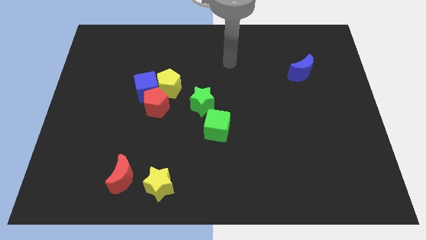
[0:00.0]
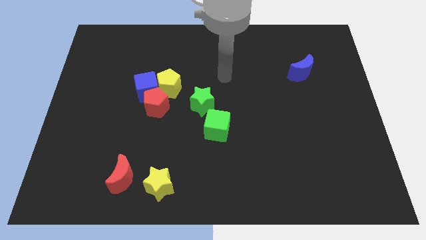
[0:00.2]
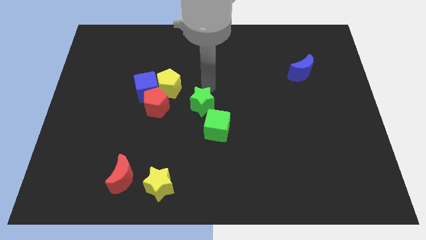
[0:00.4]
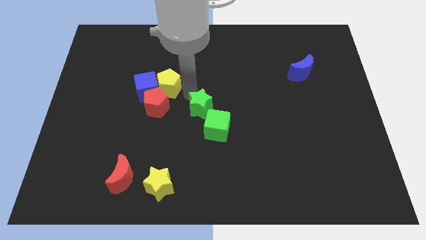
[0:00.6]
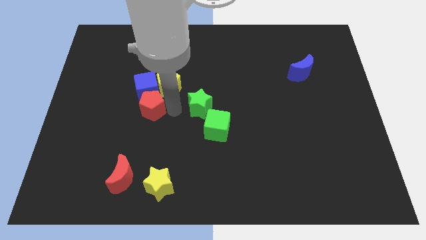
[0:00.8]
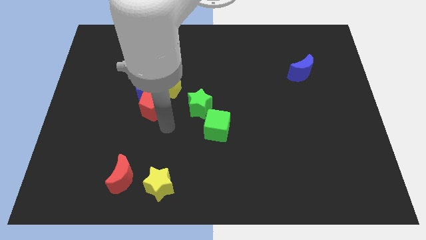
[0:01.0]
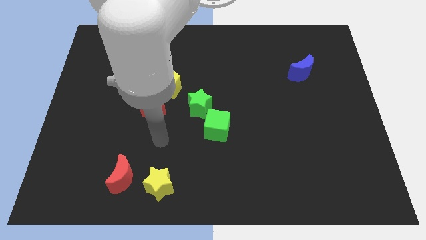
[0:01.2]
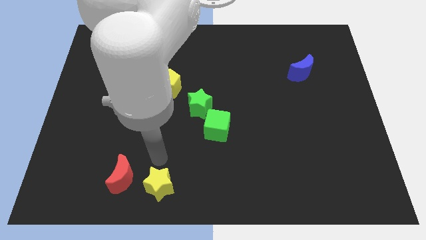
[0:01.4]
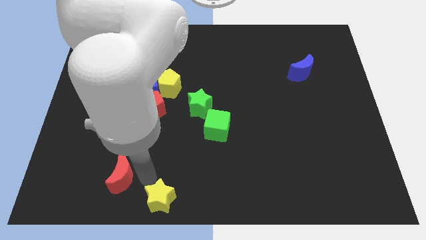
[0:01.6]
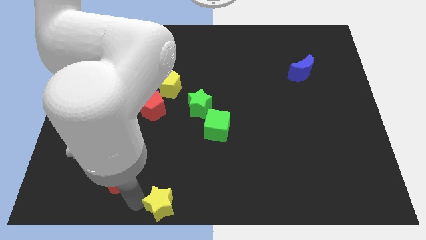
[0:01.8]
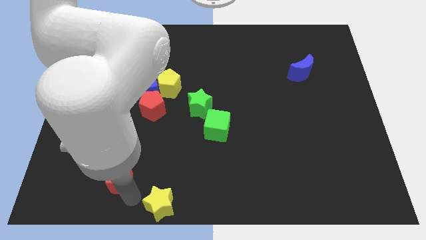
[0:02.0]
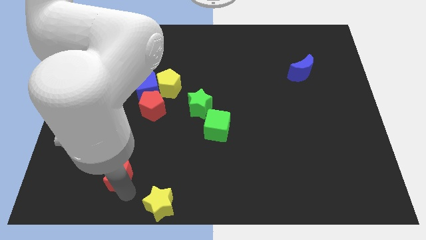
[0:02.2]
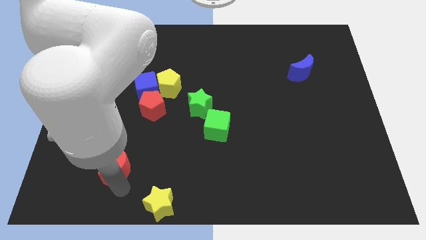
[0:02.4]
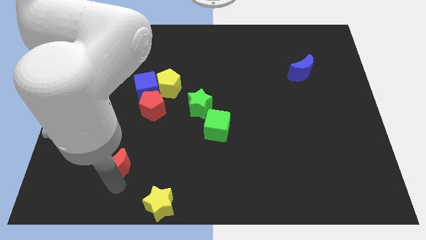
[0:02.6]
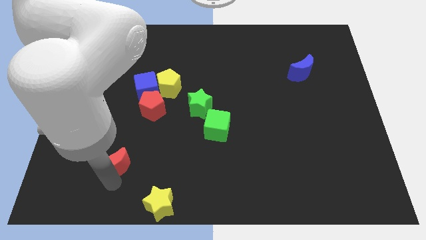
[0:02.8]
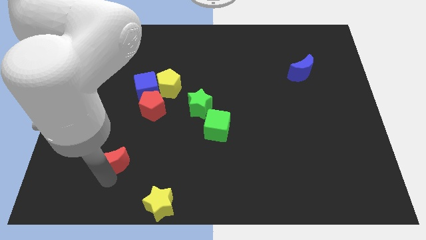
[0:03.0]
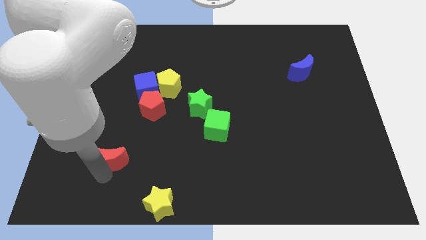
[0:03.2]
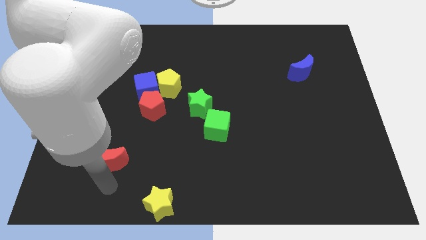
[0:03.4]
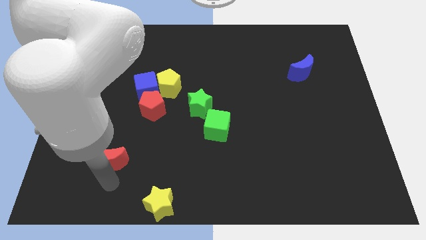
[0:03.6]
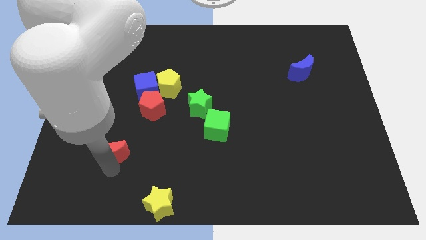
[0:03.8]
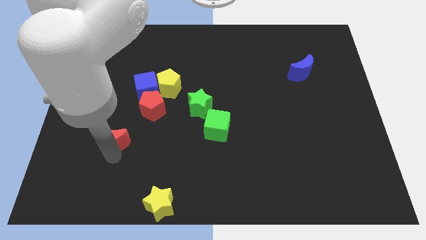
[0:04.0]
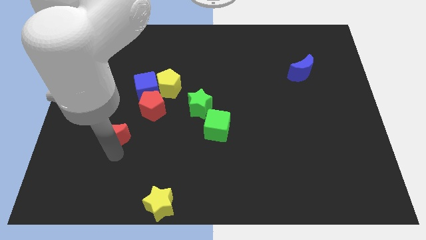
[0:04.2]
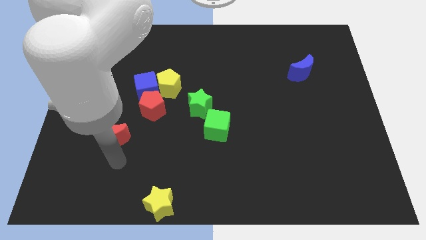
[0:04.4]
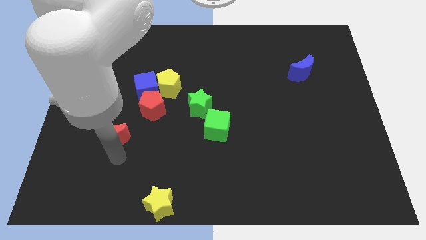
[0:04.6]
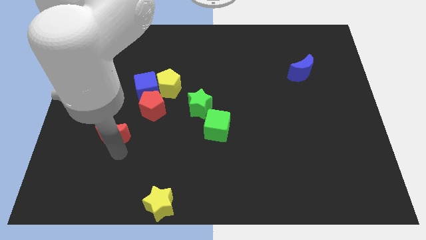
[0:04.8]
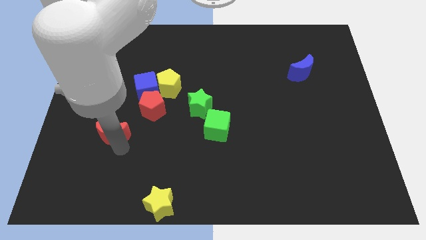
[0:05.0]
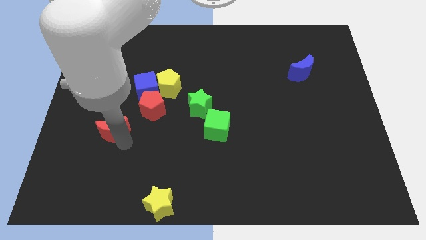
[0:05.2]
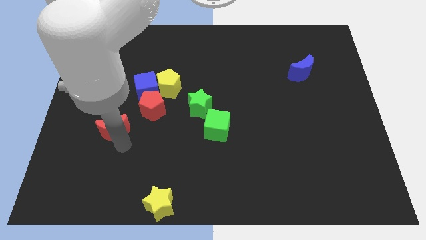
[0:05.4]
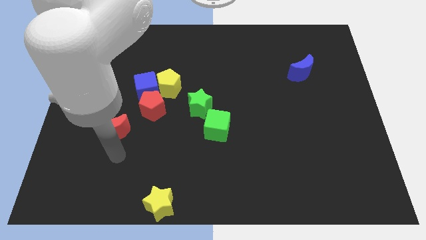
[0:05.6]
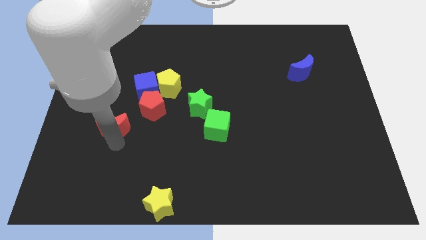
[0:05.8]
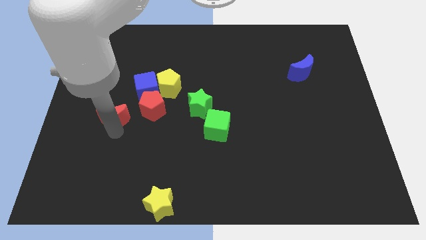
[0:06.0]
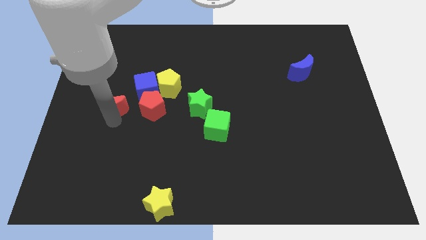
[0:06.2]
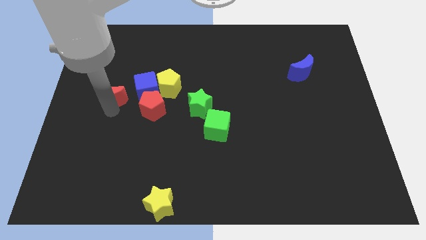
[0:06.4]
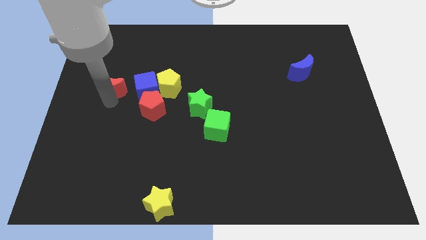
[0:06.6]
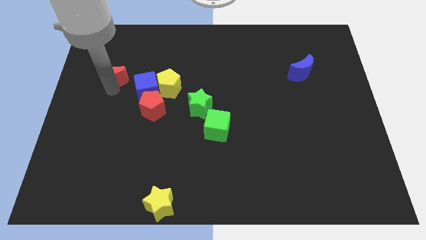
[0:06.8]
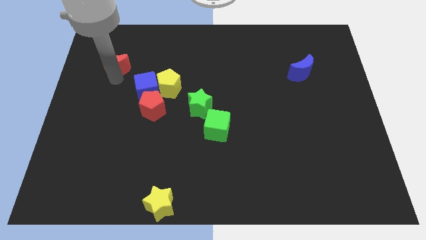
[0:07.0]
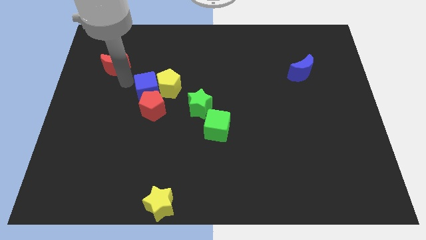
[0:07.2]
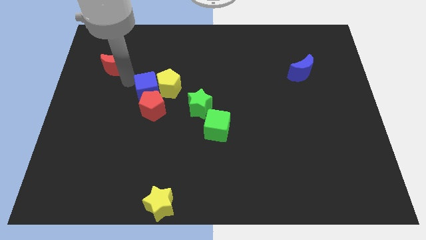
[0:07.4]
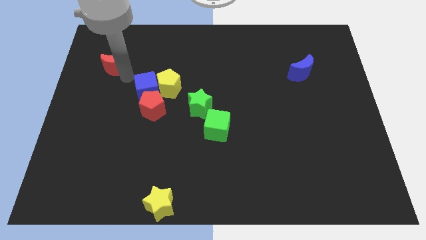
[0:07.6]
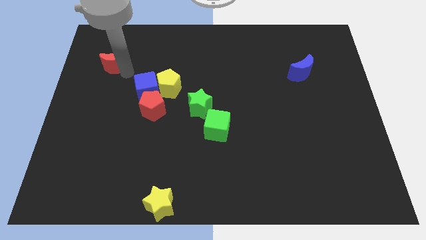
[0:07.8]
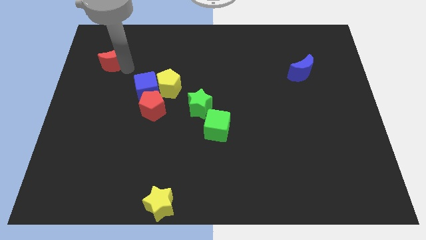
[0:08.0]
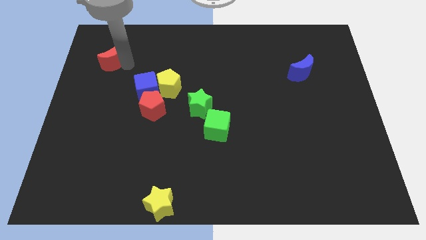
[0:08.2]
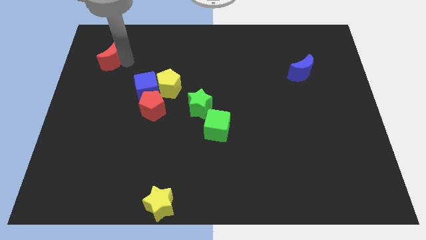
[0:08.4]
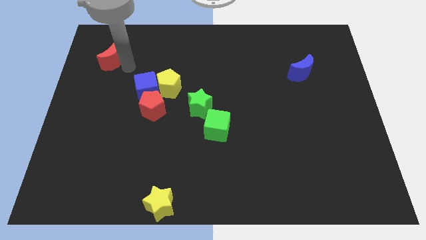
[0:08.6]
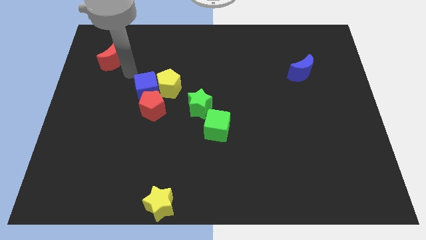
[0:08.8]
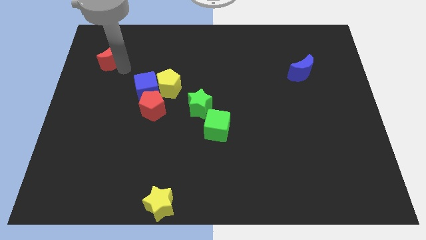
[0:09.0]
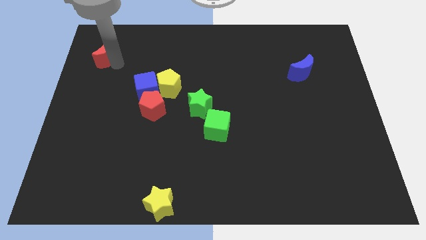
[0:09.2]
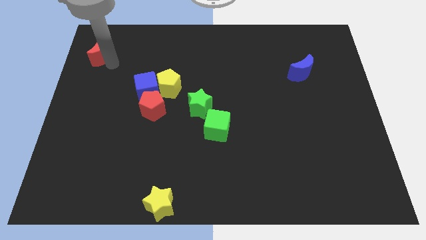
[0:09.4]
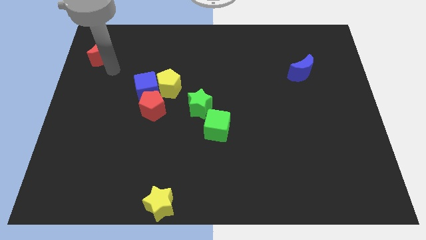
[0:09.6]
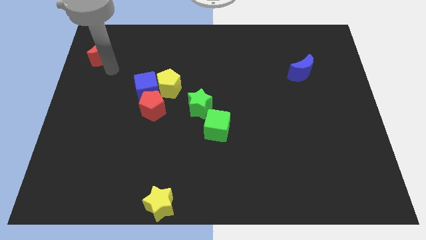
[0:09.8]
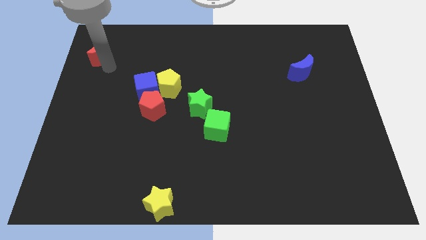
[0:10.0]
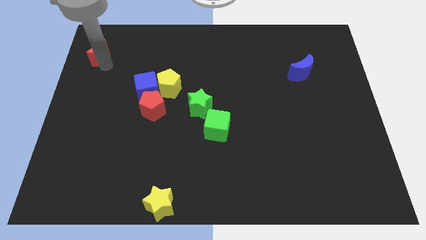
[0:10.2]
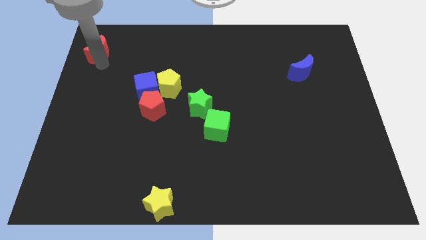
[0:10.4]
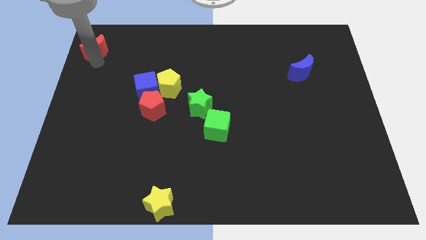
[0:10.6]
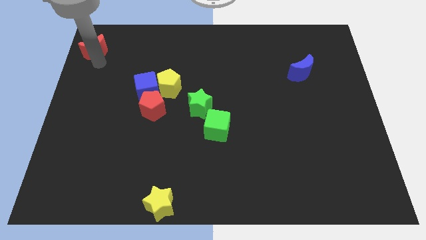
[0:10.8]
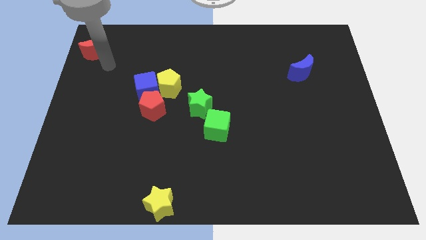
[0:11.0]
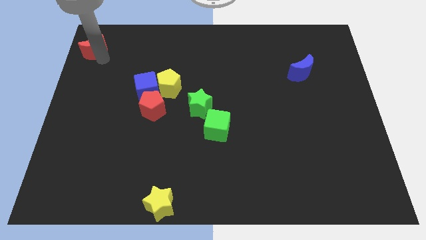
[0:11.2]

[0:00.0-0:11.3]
push the red moon to the top left of the board

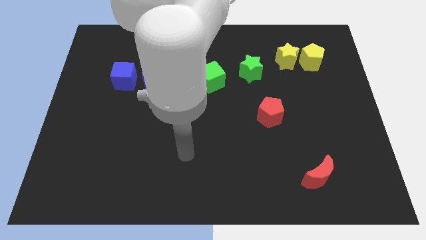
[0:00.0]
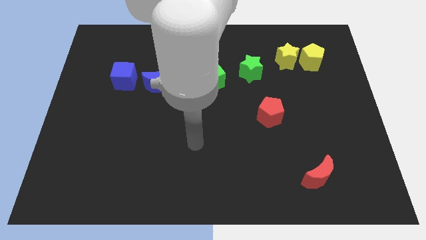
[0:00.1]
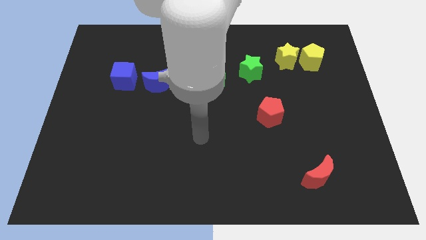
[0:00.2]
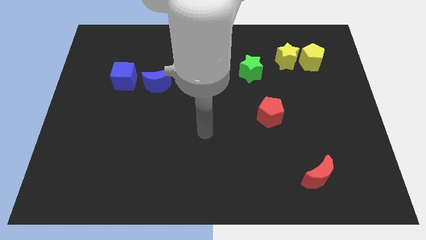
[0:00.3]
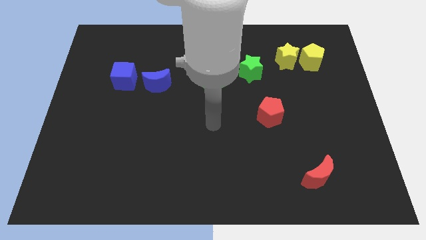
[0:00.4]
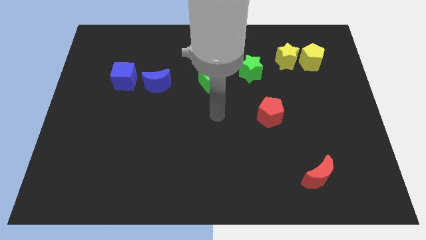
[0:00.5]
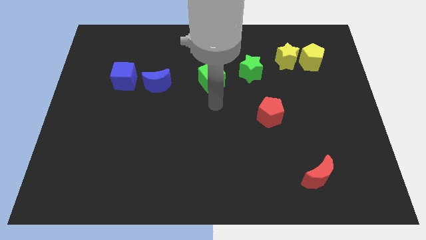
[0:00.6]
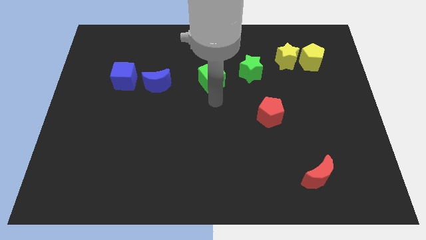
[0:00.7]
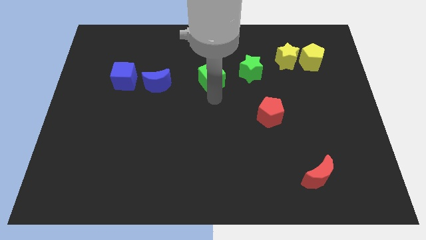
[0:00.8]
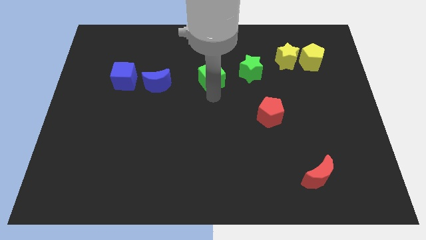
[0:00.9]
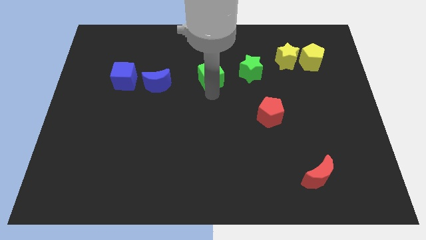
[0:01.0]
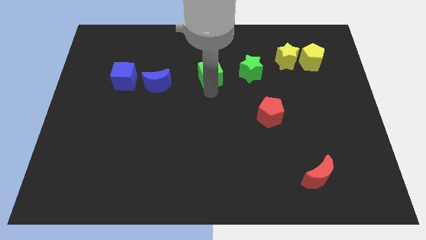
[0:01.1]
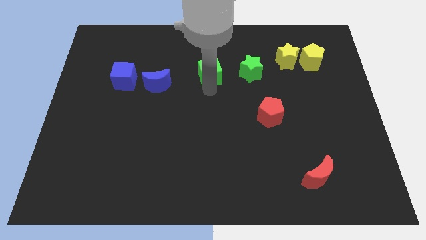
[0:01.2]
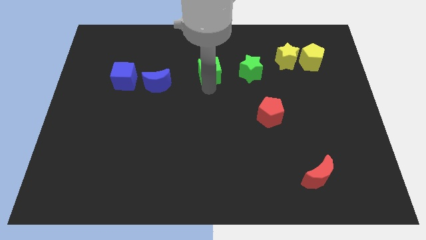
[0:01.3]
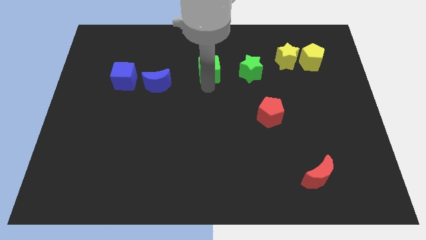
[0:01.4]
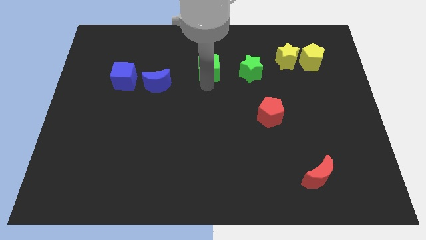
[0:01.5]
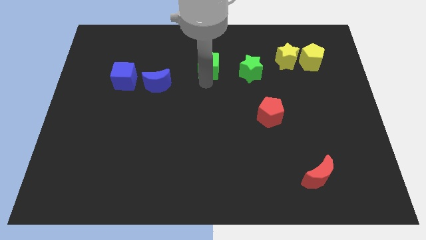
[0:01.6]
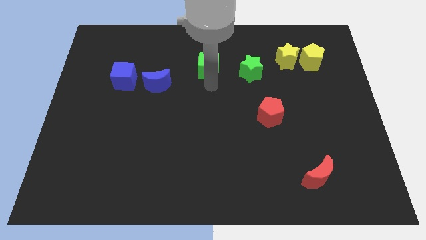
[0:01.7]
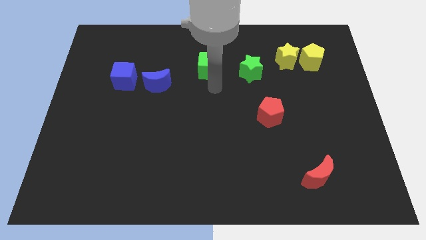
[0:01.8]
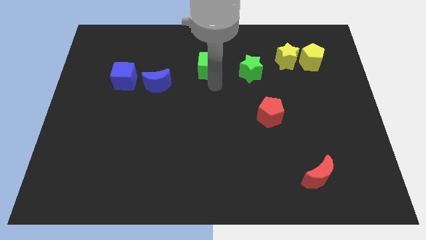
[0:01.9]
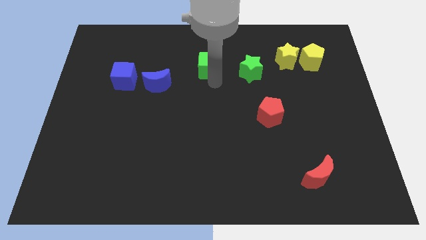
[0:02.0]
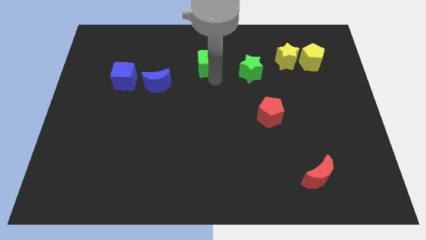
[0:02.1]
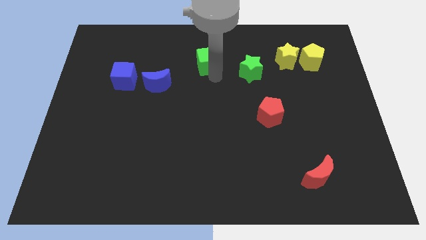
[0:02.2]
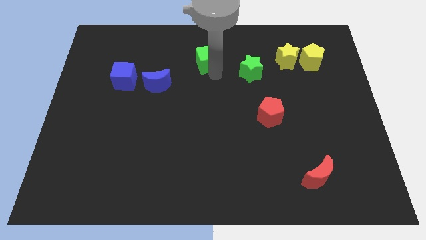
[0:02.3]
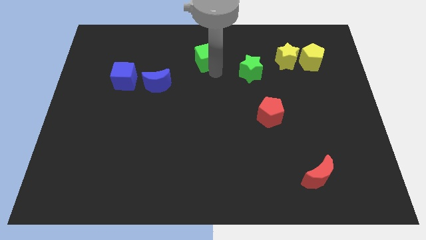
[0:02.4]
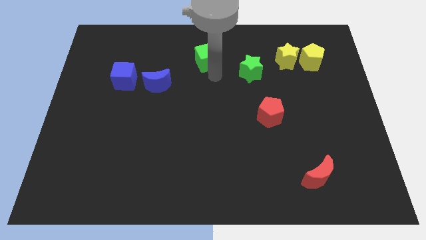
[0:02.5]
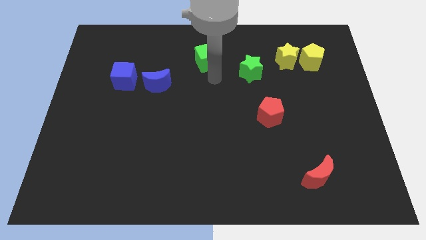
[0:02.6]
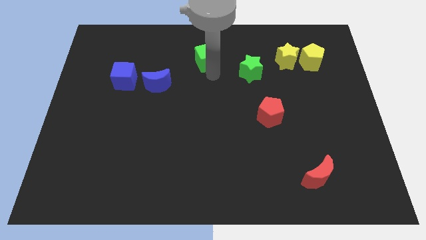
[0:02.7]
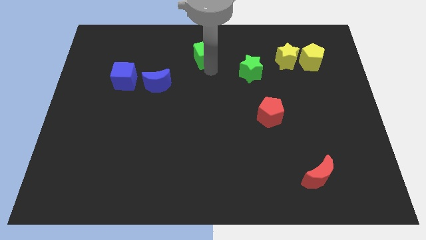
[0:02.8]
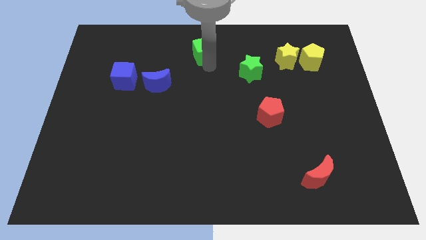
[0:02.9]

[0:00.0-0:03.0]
put the green cube to the top side
